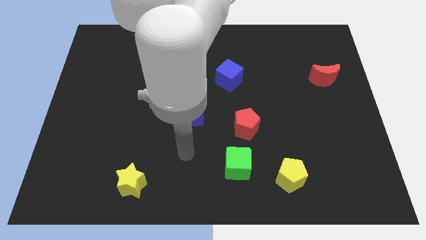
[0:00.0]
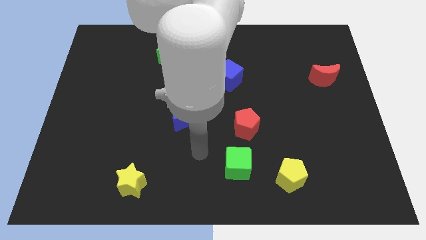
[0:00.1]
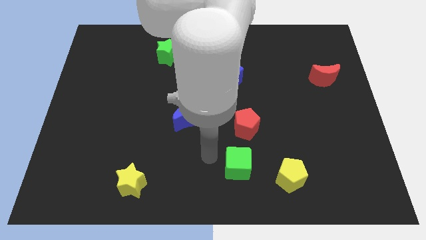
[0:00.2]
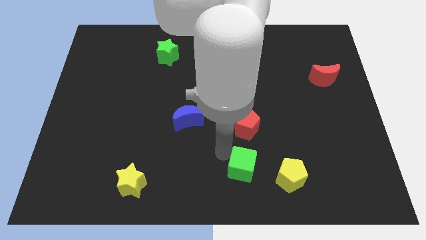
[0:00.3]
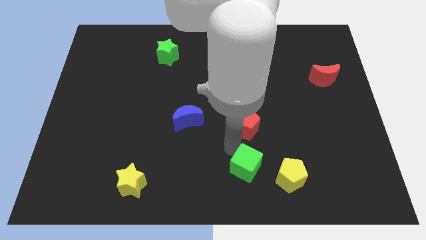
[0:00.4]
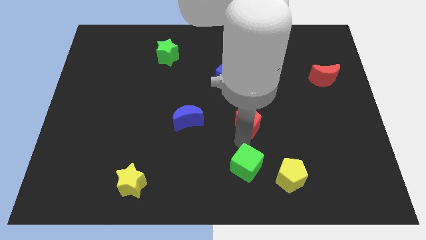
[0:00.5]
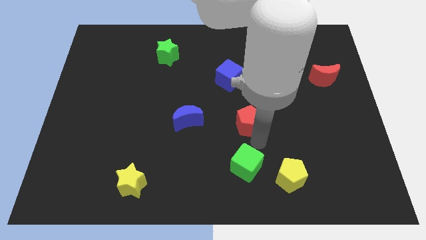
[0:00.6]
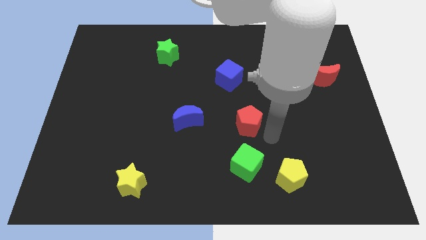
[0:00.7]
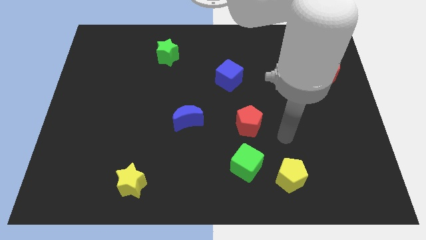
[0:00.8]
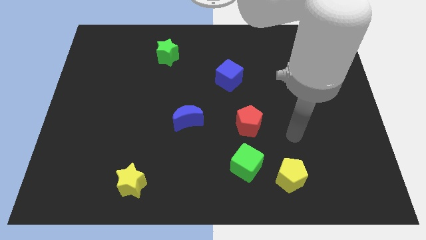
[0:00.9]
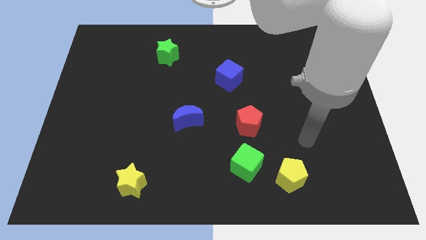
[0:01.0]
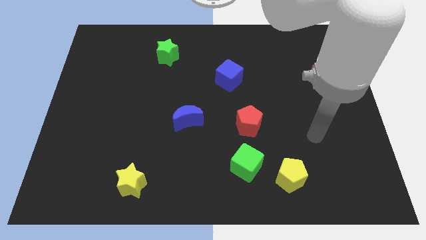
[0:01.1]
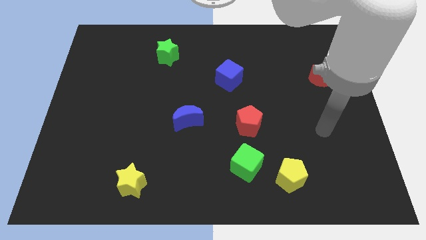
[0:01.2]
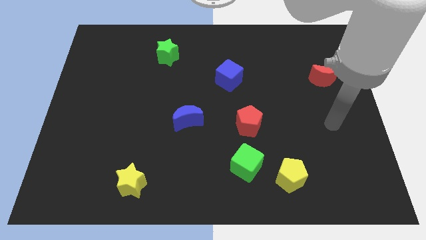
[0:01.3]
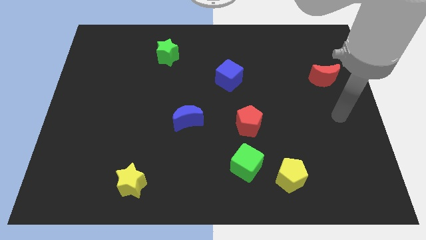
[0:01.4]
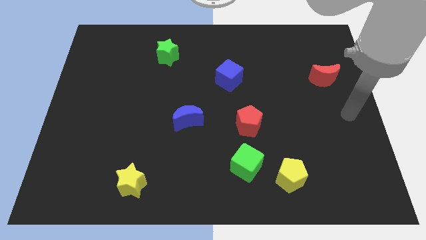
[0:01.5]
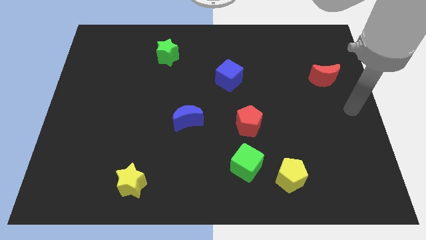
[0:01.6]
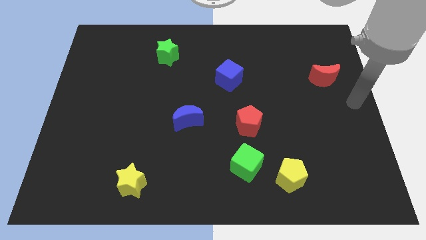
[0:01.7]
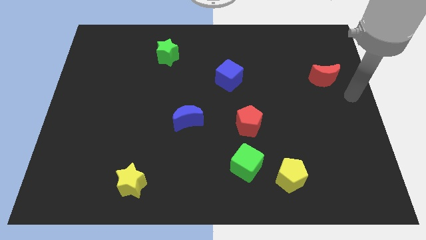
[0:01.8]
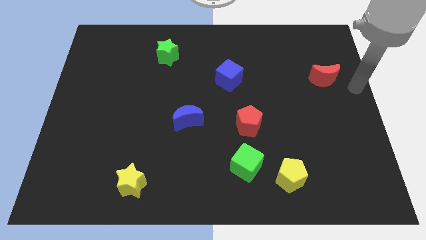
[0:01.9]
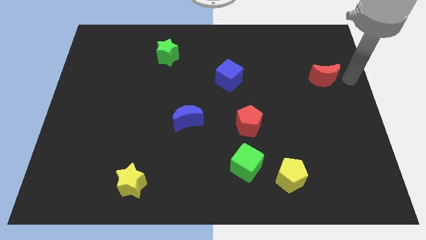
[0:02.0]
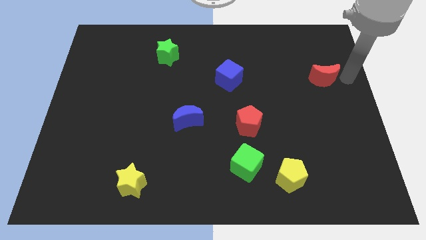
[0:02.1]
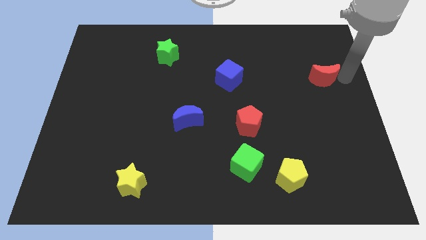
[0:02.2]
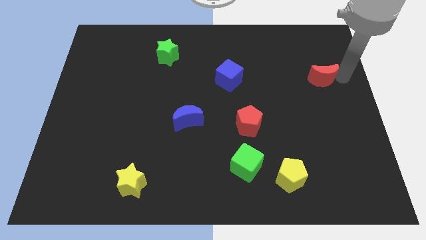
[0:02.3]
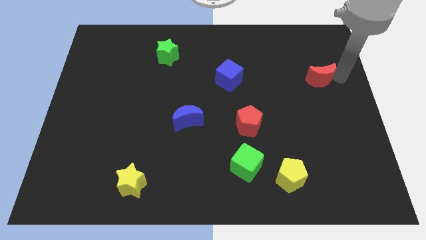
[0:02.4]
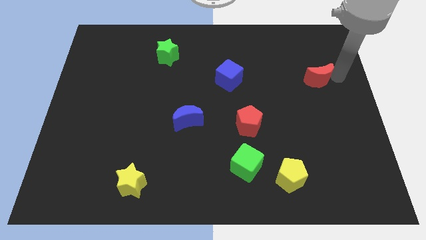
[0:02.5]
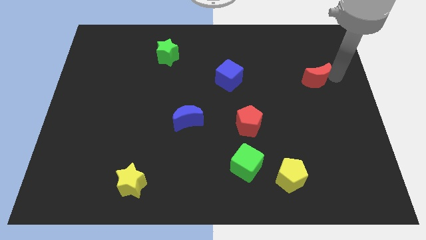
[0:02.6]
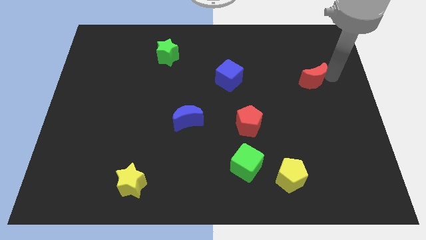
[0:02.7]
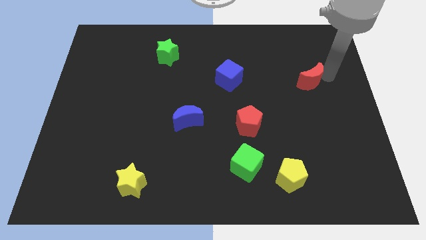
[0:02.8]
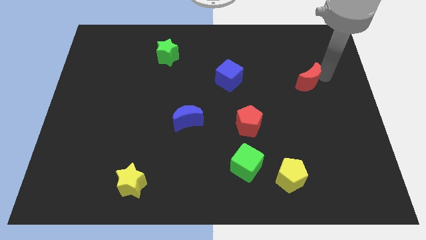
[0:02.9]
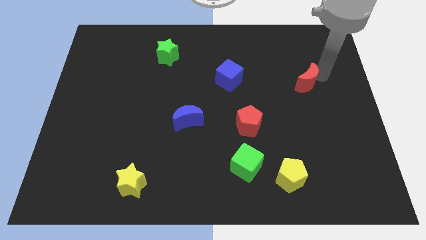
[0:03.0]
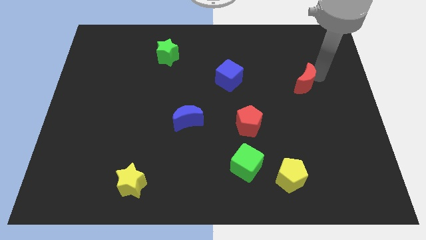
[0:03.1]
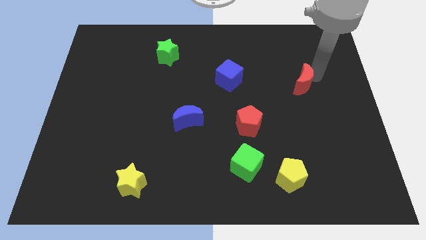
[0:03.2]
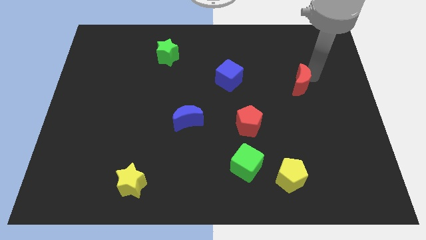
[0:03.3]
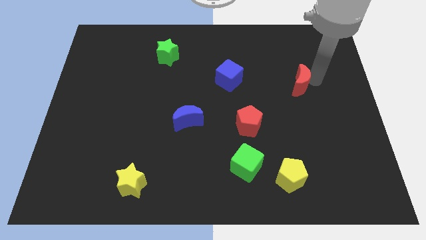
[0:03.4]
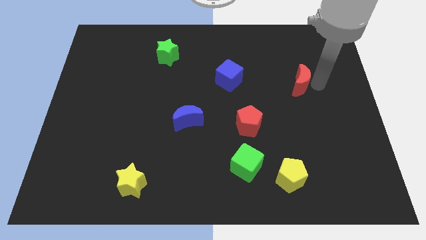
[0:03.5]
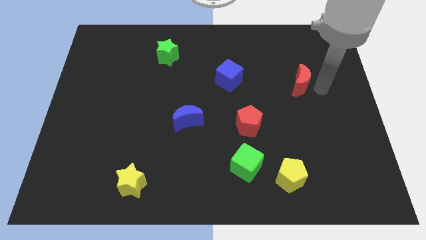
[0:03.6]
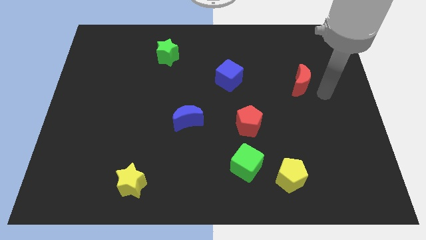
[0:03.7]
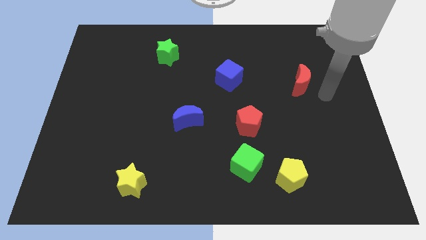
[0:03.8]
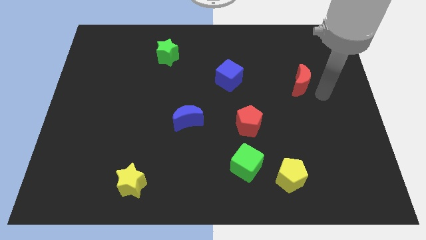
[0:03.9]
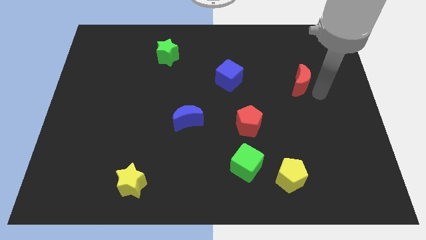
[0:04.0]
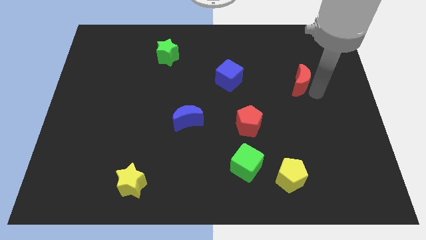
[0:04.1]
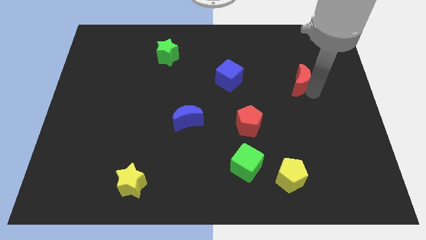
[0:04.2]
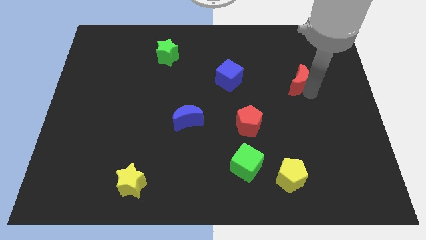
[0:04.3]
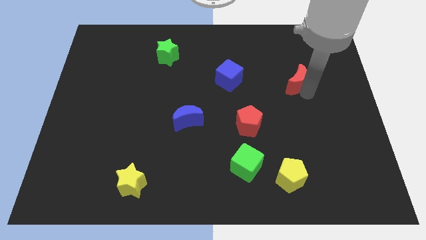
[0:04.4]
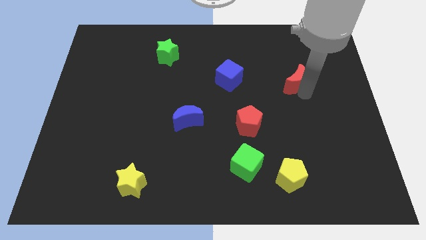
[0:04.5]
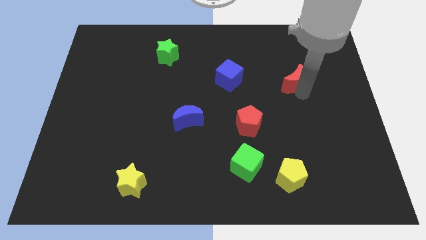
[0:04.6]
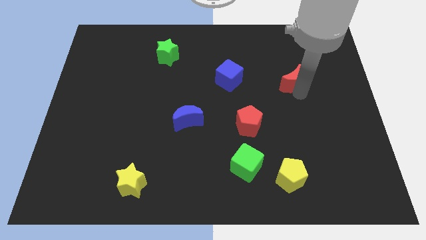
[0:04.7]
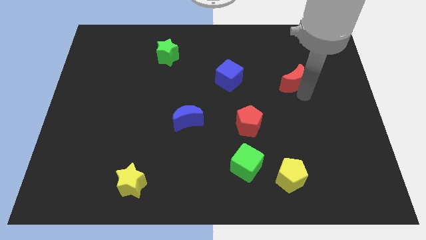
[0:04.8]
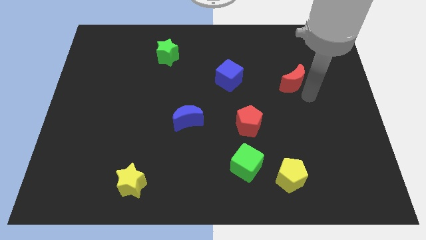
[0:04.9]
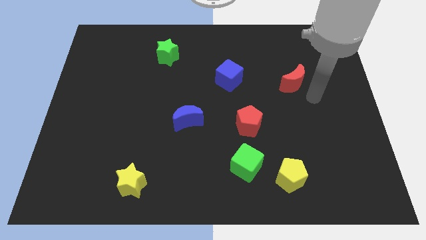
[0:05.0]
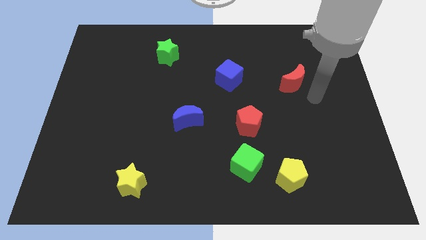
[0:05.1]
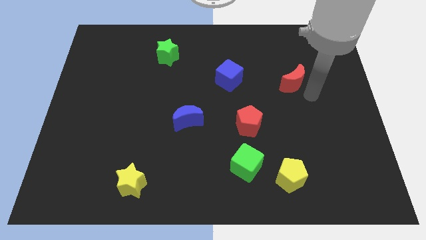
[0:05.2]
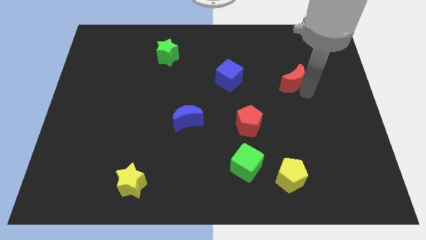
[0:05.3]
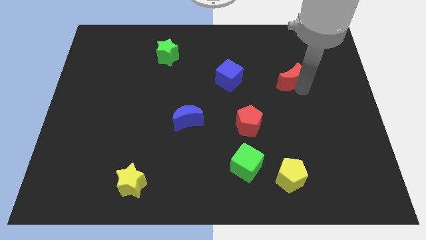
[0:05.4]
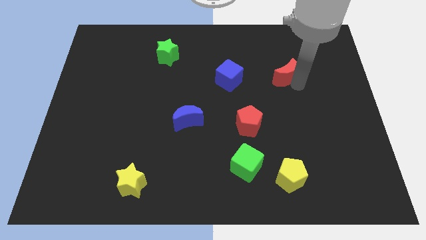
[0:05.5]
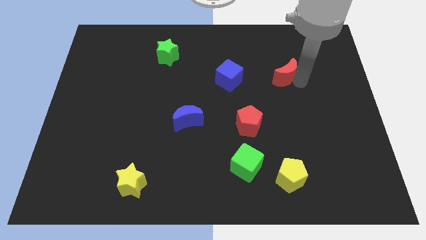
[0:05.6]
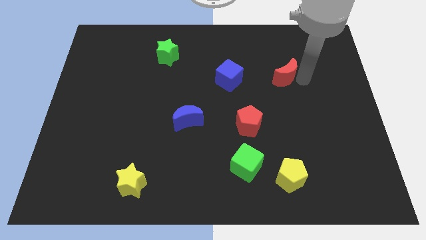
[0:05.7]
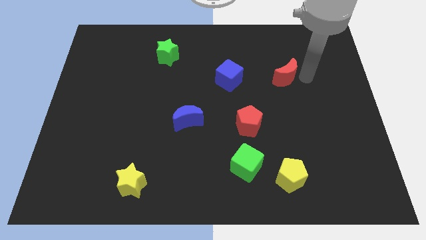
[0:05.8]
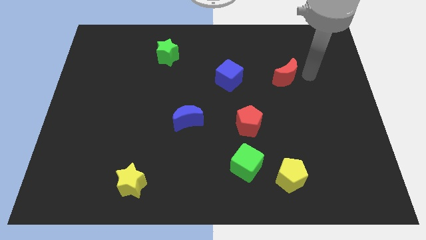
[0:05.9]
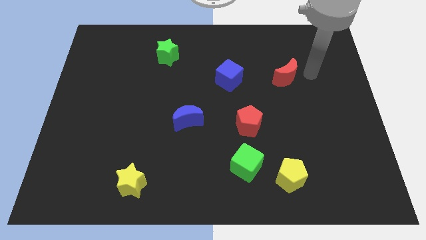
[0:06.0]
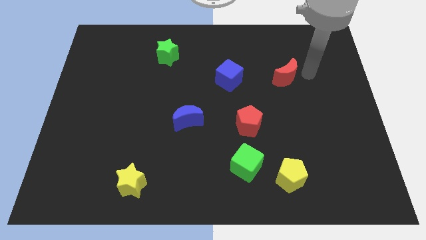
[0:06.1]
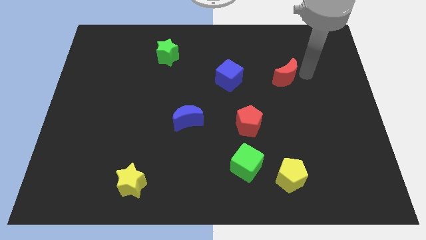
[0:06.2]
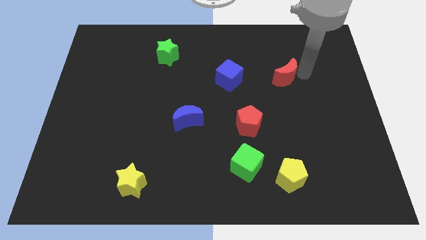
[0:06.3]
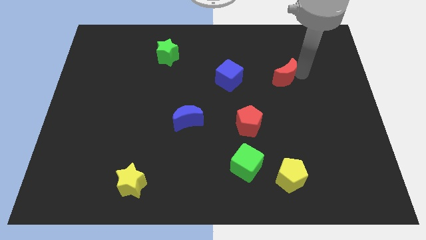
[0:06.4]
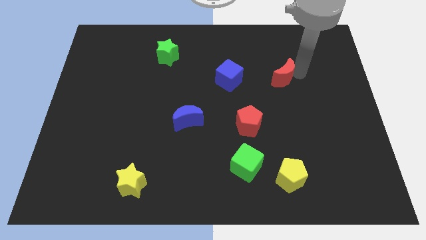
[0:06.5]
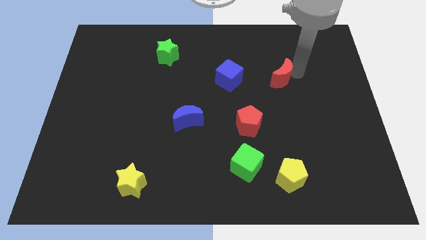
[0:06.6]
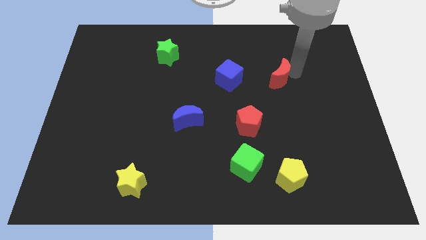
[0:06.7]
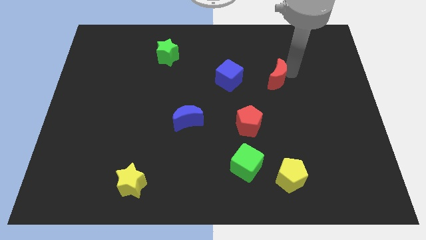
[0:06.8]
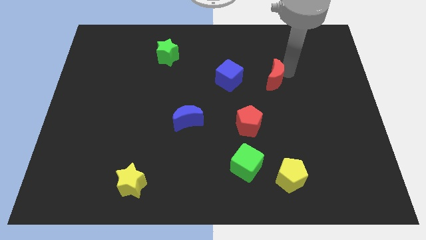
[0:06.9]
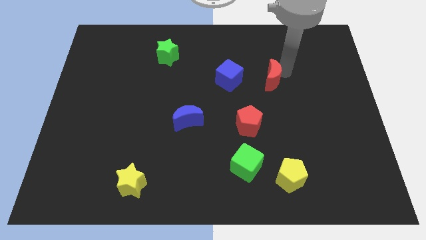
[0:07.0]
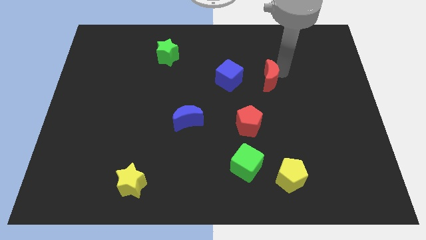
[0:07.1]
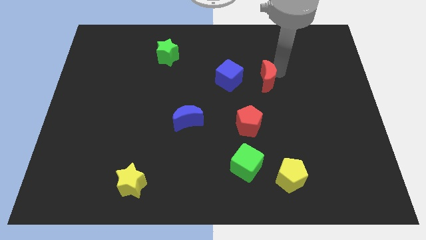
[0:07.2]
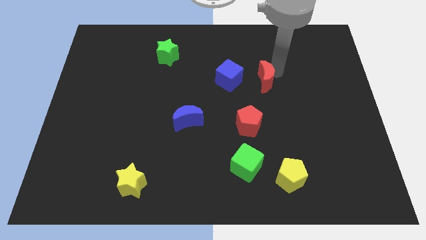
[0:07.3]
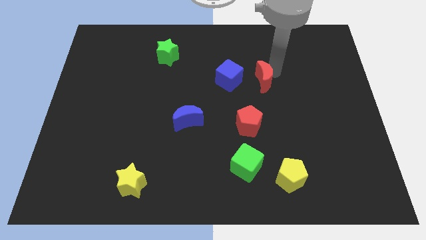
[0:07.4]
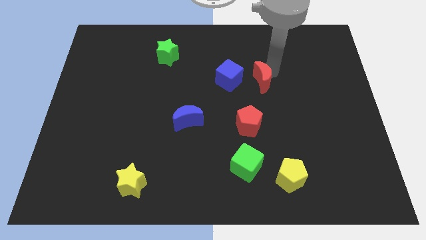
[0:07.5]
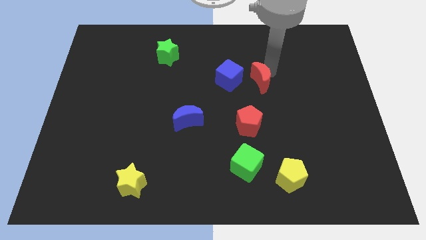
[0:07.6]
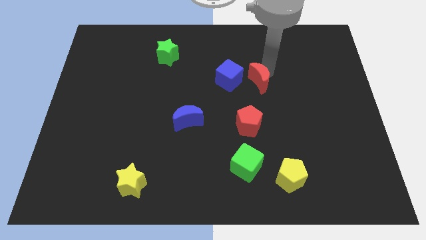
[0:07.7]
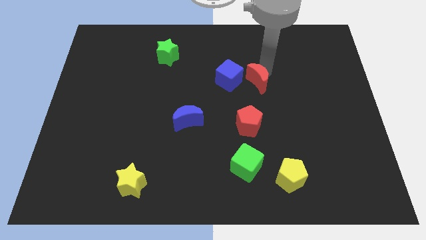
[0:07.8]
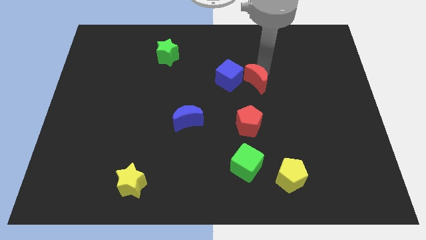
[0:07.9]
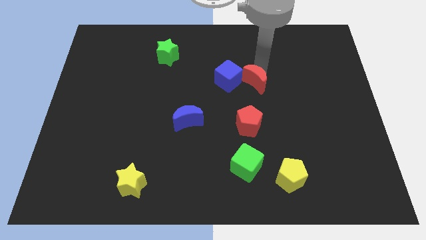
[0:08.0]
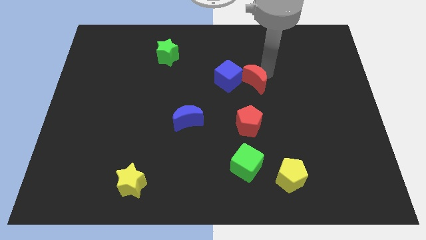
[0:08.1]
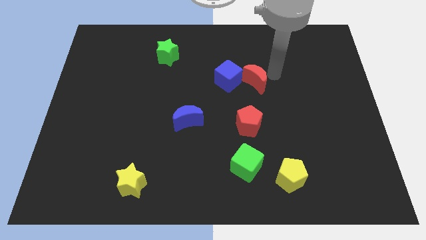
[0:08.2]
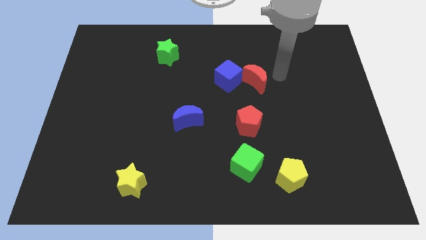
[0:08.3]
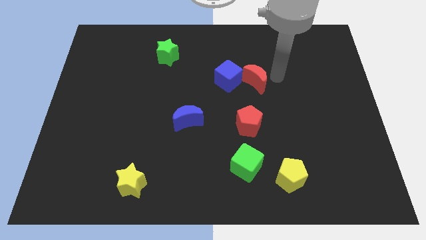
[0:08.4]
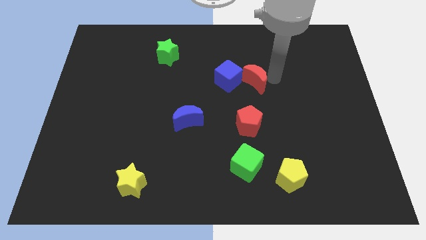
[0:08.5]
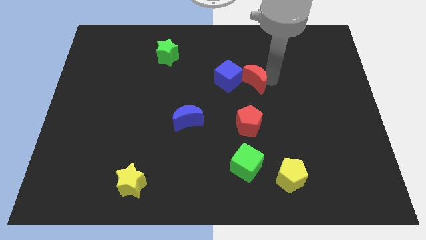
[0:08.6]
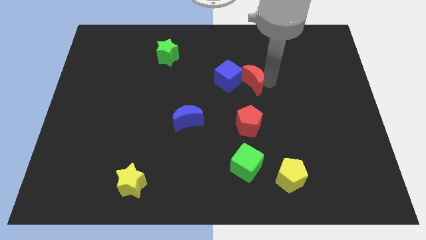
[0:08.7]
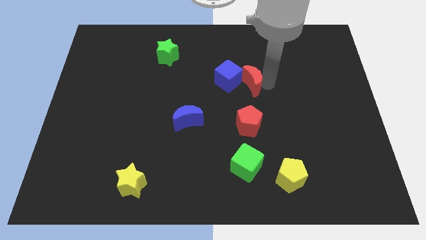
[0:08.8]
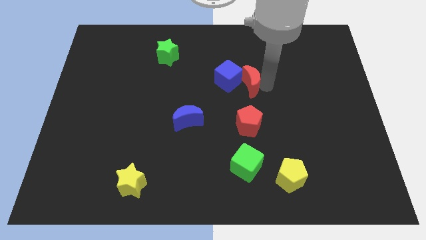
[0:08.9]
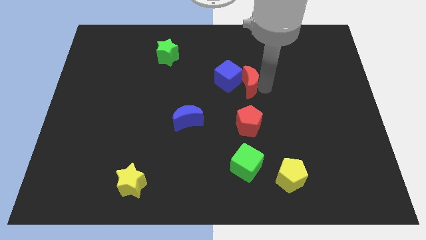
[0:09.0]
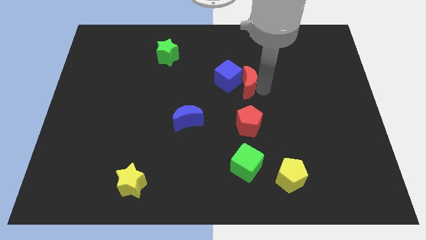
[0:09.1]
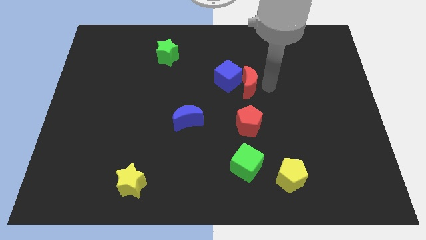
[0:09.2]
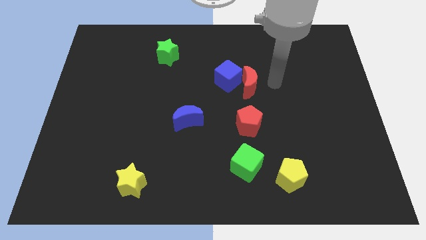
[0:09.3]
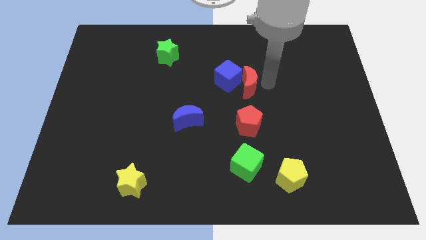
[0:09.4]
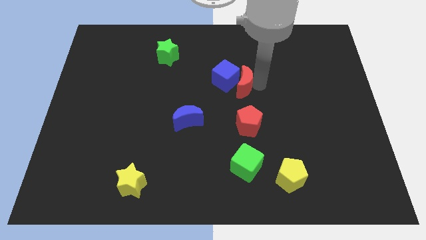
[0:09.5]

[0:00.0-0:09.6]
slide the red moon left
